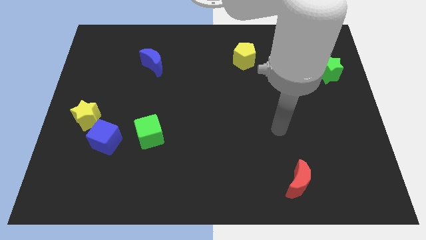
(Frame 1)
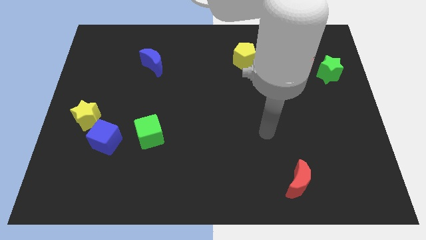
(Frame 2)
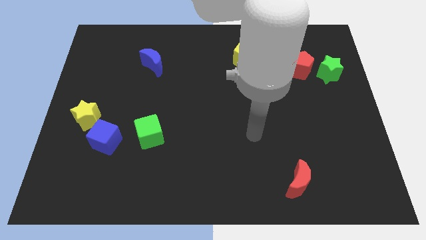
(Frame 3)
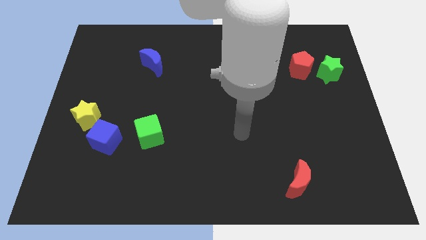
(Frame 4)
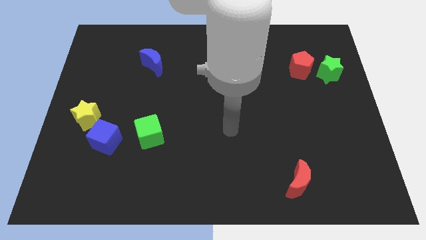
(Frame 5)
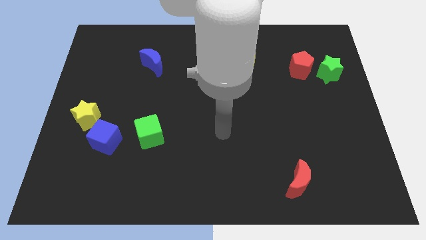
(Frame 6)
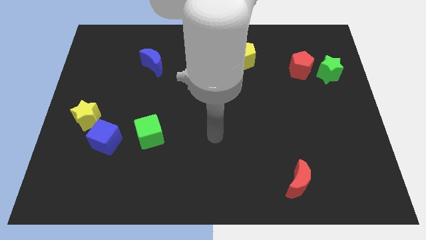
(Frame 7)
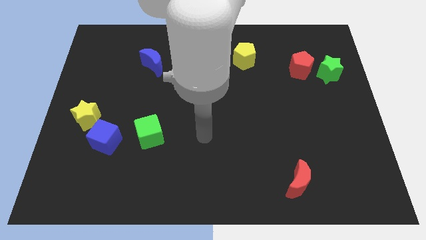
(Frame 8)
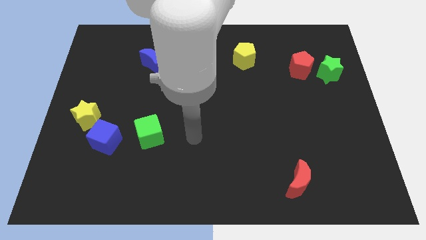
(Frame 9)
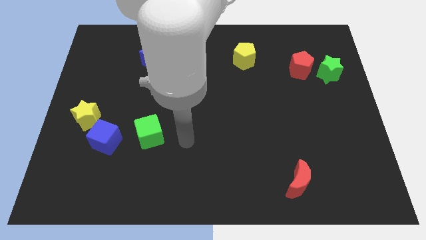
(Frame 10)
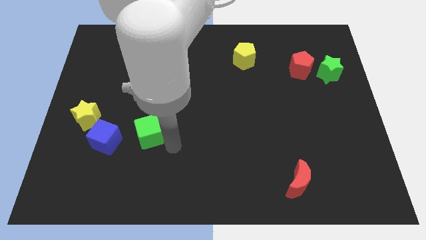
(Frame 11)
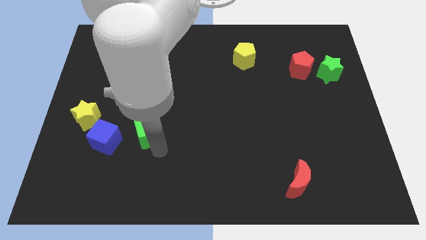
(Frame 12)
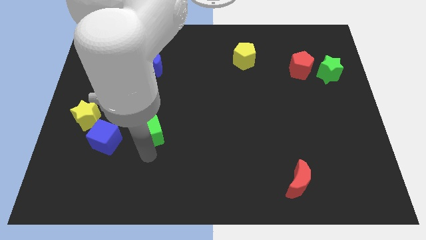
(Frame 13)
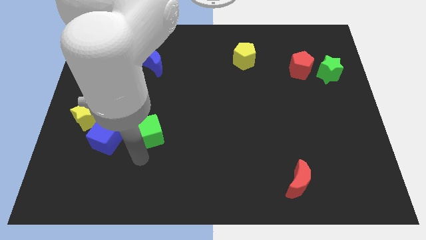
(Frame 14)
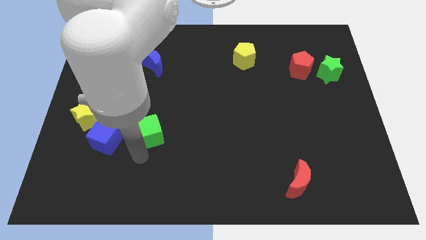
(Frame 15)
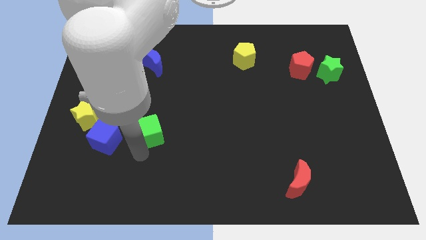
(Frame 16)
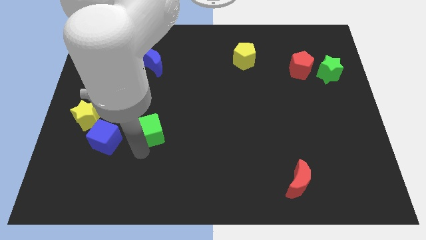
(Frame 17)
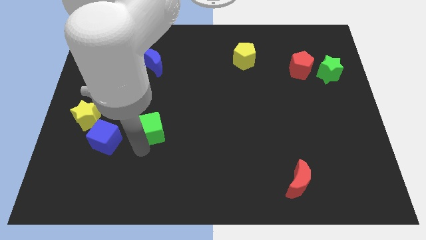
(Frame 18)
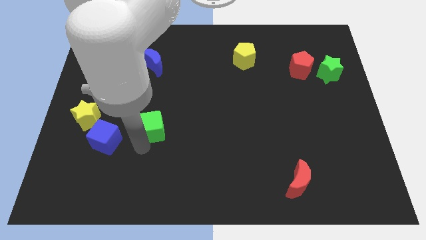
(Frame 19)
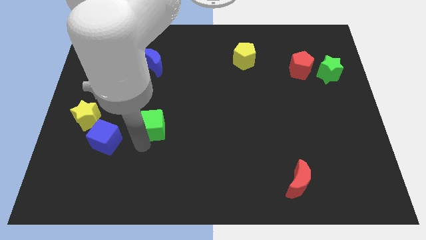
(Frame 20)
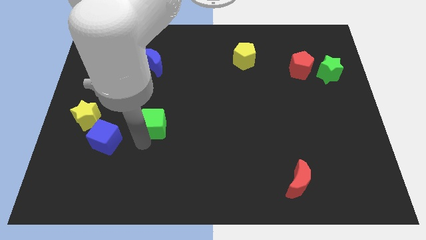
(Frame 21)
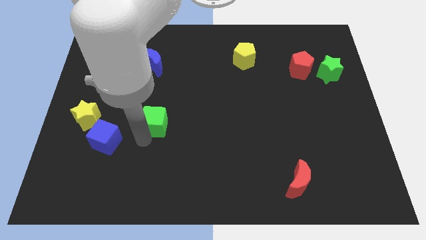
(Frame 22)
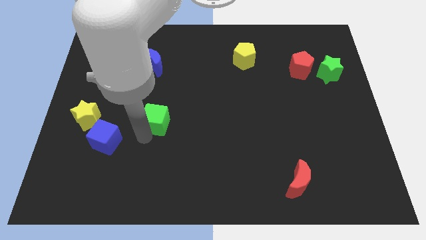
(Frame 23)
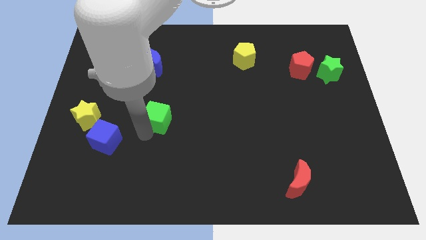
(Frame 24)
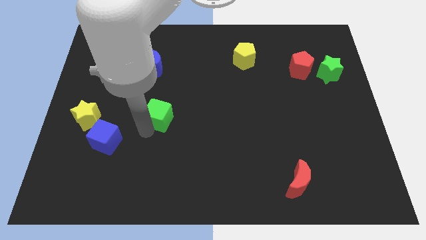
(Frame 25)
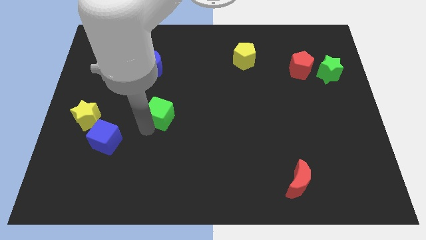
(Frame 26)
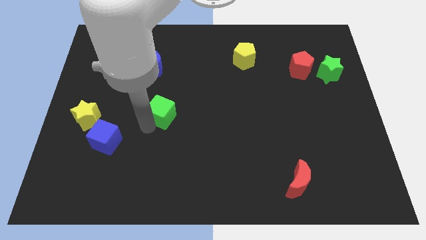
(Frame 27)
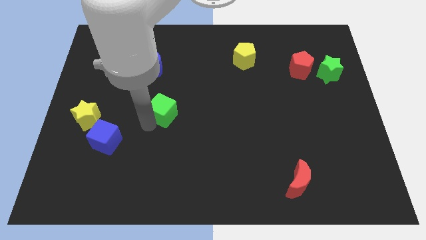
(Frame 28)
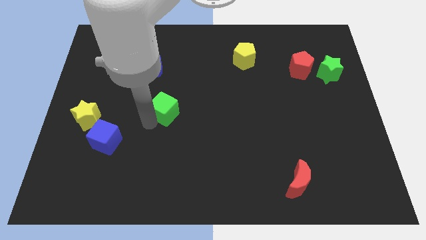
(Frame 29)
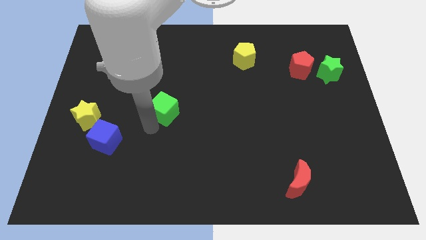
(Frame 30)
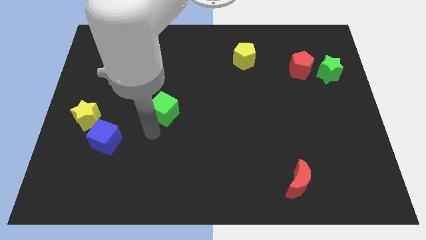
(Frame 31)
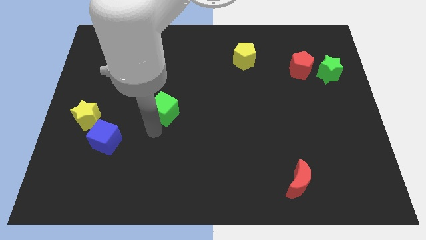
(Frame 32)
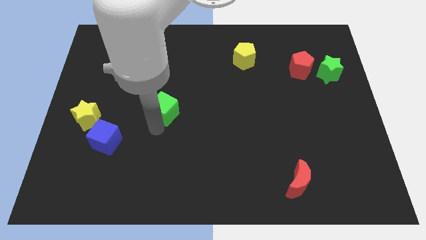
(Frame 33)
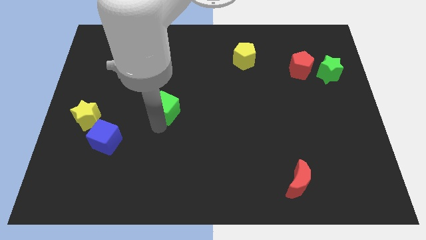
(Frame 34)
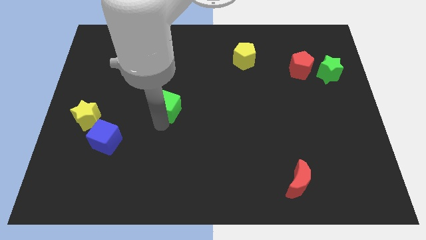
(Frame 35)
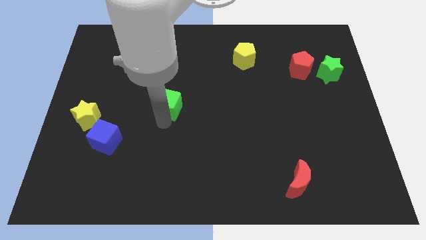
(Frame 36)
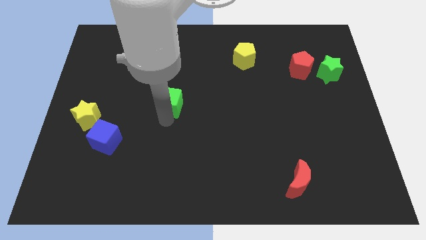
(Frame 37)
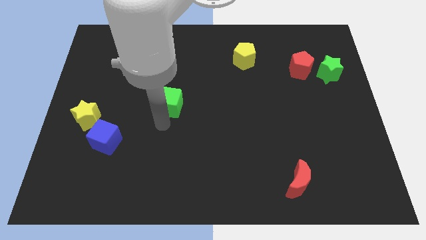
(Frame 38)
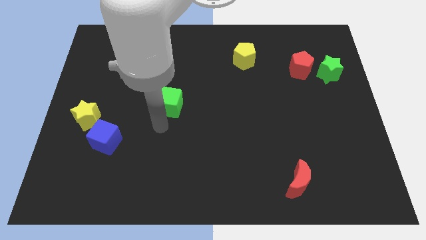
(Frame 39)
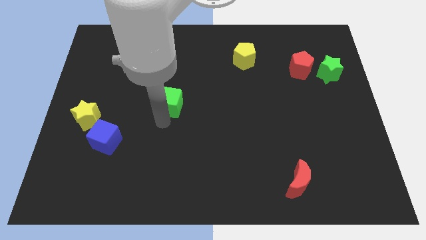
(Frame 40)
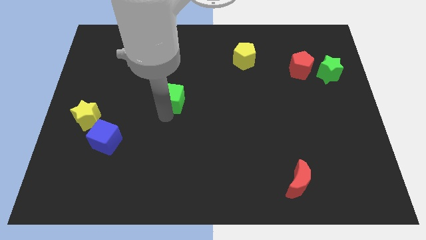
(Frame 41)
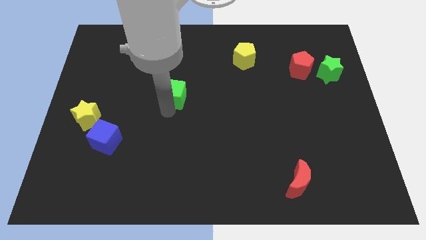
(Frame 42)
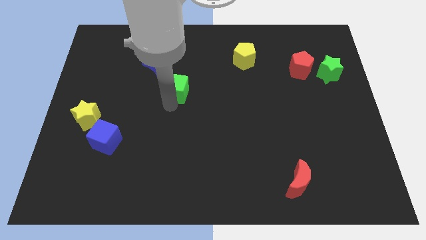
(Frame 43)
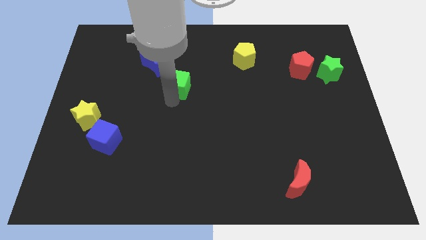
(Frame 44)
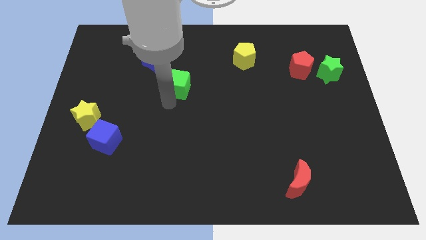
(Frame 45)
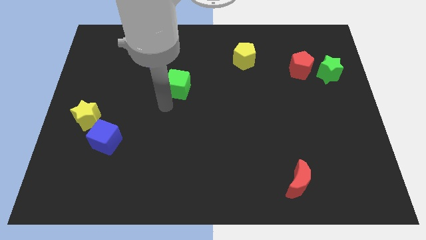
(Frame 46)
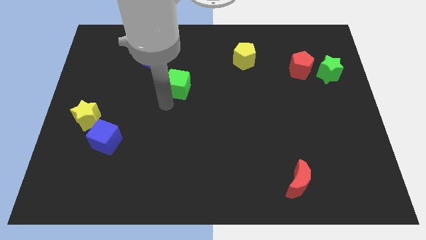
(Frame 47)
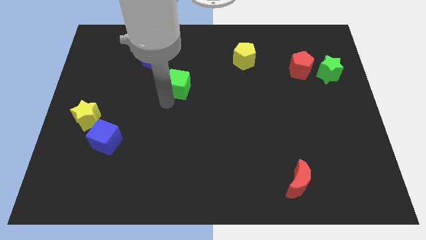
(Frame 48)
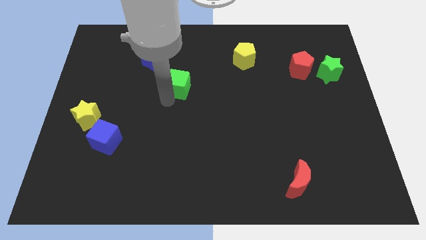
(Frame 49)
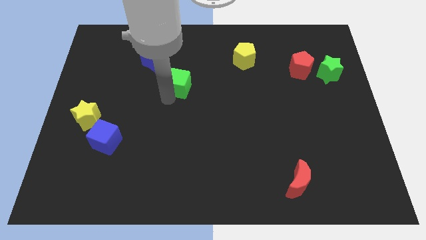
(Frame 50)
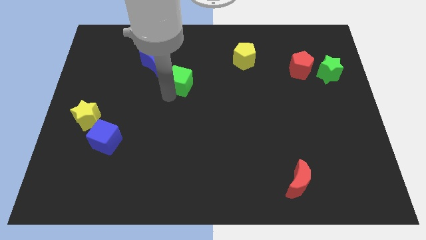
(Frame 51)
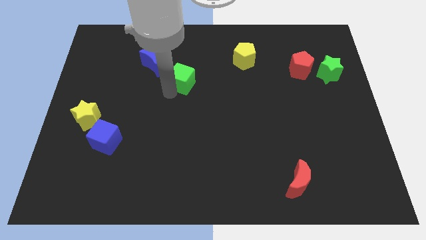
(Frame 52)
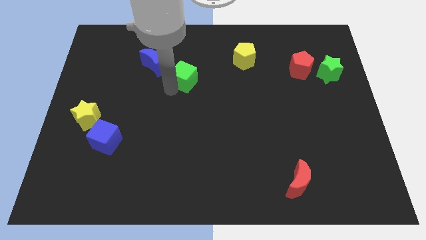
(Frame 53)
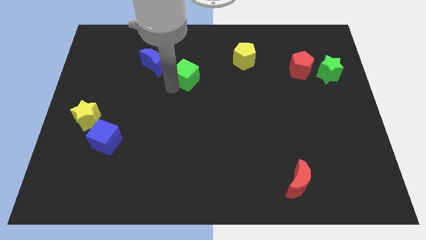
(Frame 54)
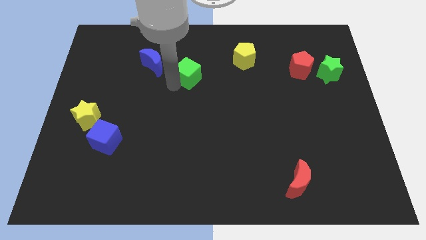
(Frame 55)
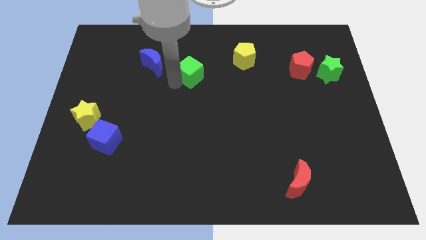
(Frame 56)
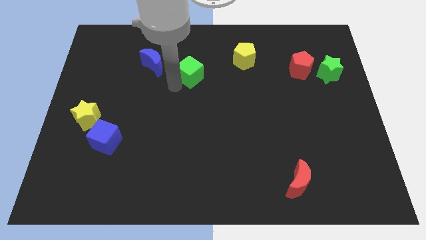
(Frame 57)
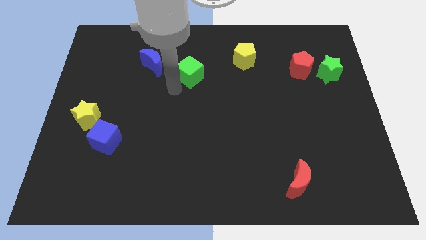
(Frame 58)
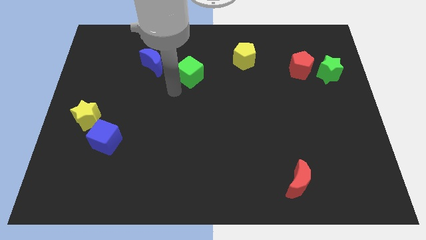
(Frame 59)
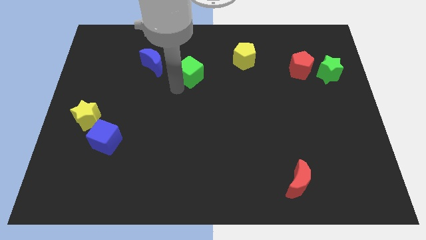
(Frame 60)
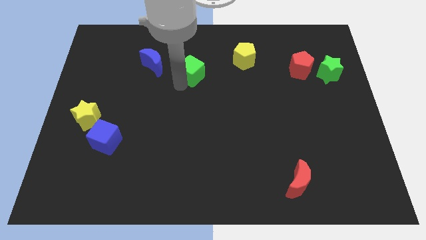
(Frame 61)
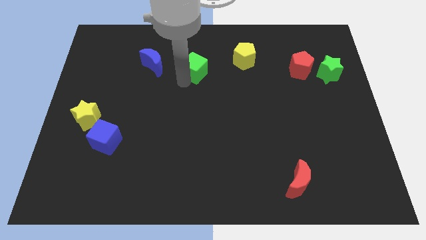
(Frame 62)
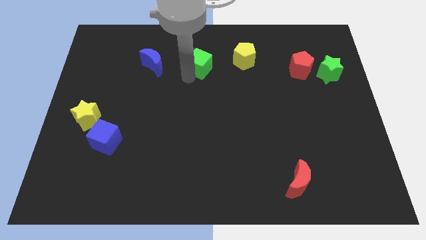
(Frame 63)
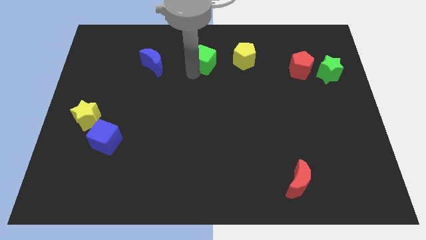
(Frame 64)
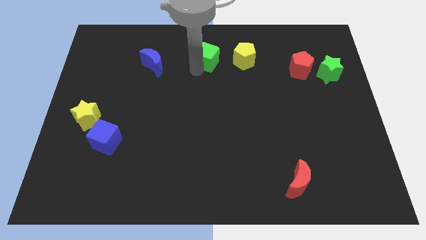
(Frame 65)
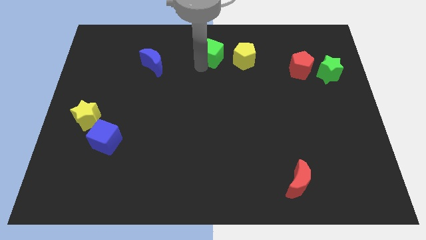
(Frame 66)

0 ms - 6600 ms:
push the green cube to the top
